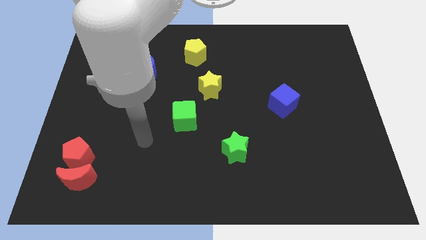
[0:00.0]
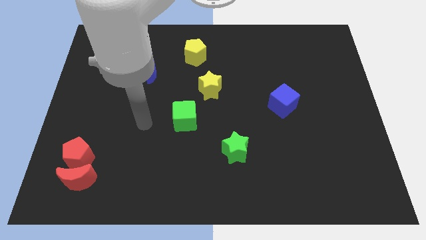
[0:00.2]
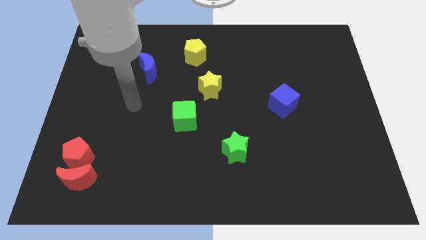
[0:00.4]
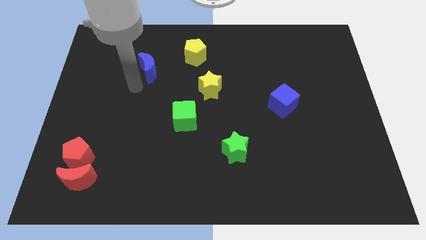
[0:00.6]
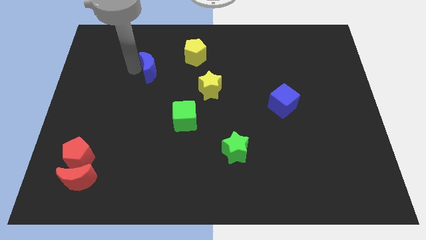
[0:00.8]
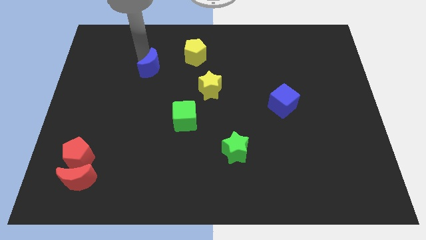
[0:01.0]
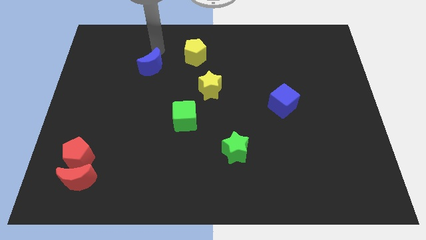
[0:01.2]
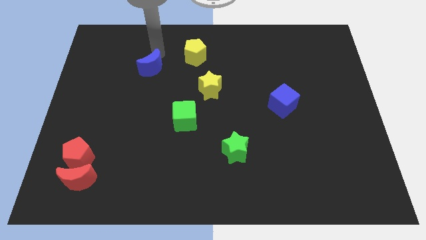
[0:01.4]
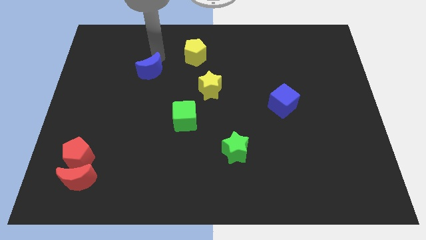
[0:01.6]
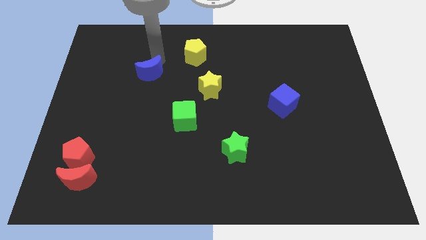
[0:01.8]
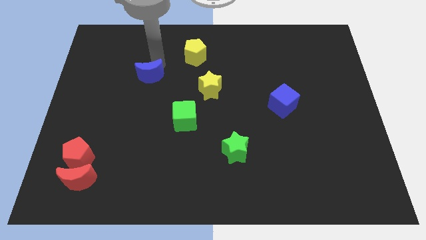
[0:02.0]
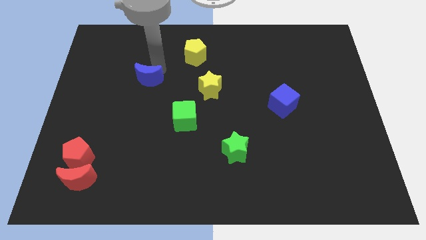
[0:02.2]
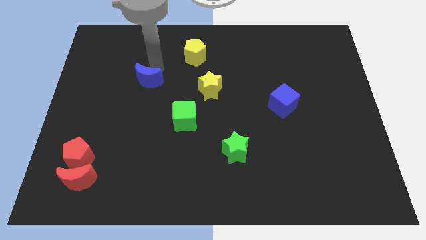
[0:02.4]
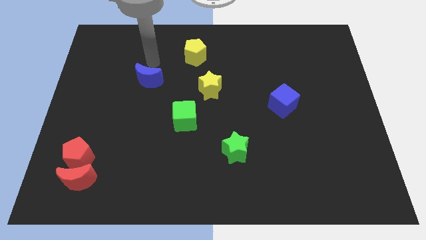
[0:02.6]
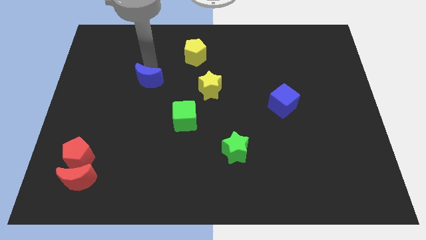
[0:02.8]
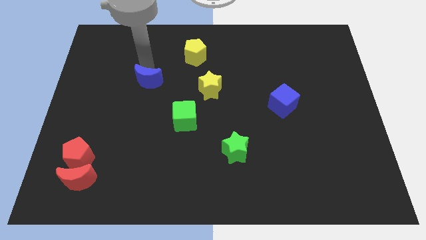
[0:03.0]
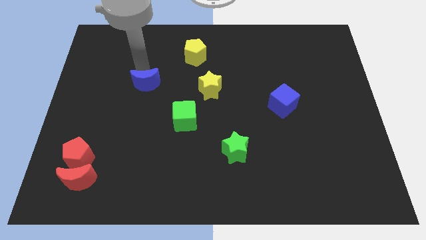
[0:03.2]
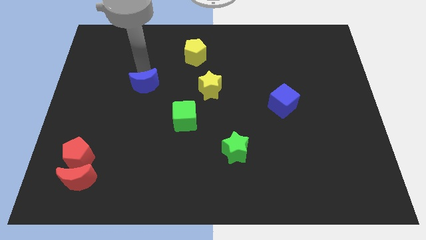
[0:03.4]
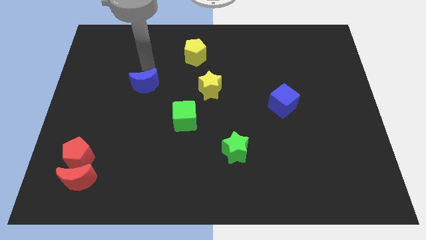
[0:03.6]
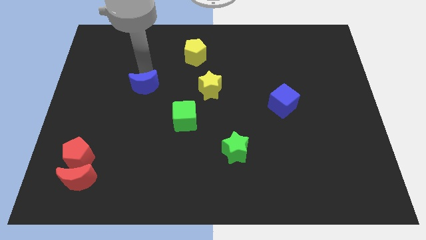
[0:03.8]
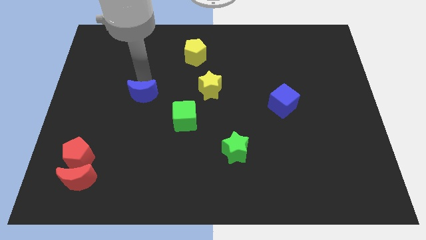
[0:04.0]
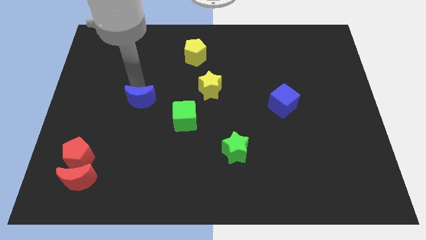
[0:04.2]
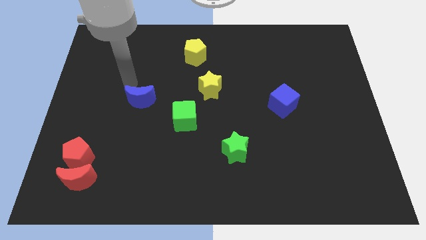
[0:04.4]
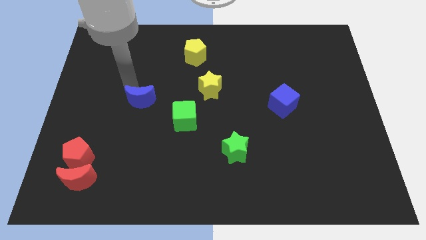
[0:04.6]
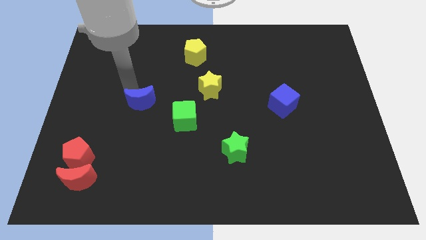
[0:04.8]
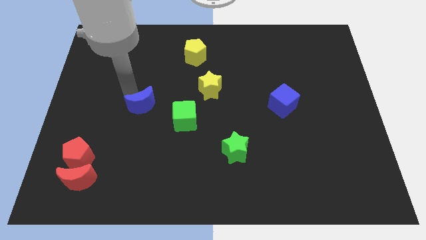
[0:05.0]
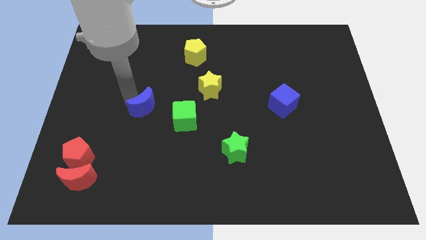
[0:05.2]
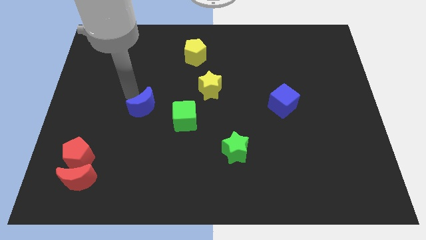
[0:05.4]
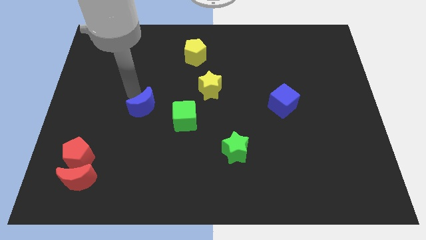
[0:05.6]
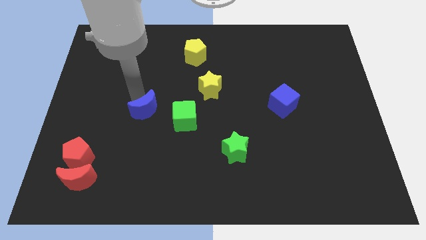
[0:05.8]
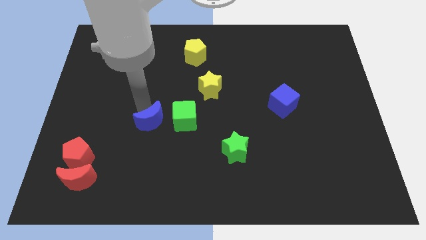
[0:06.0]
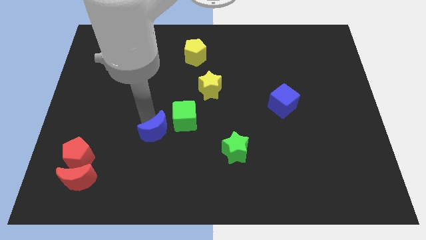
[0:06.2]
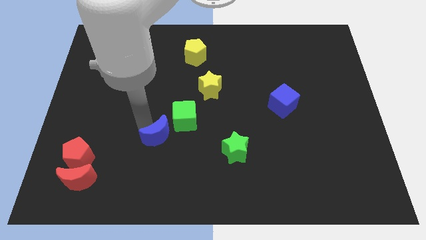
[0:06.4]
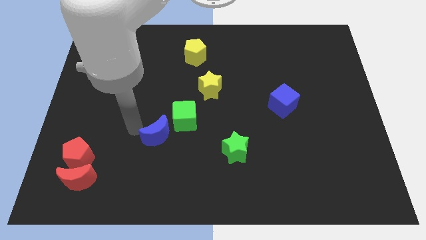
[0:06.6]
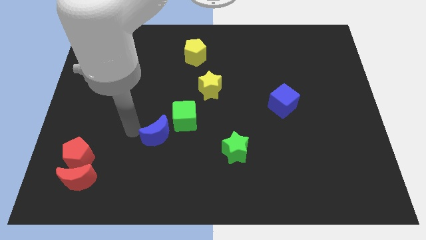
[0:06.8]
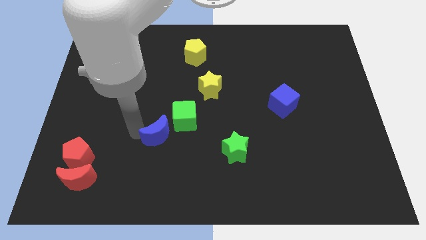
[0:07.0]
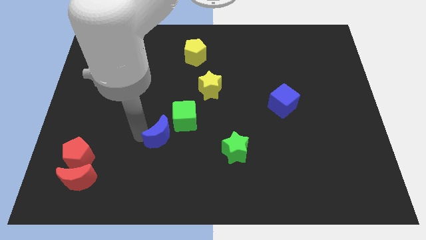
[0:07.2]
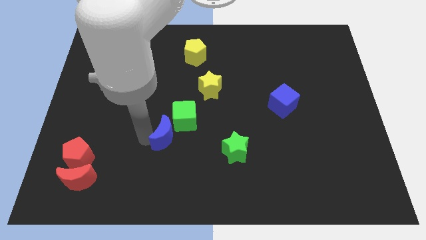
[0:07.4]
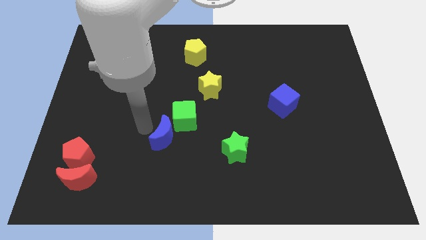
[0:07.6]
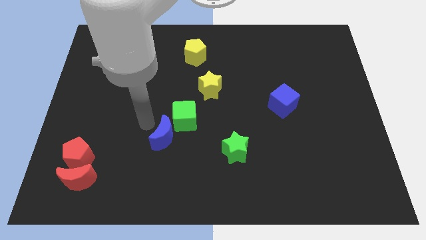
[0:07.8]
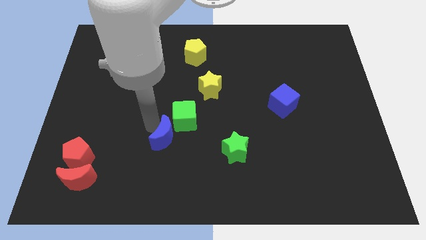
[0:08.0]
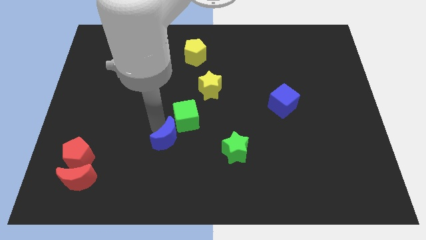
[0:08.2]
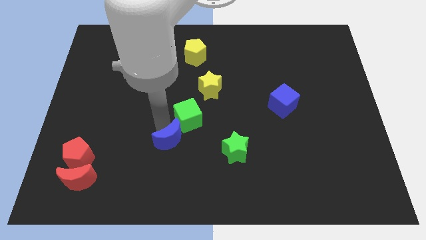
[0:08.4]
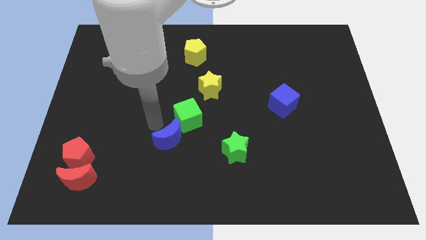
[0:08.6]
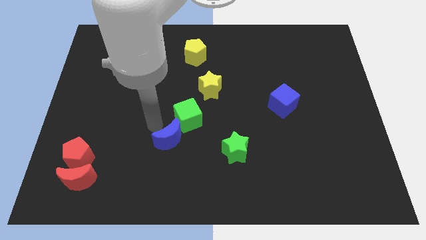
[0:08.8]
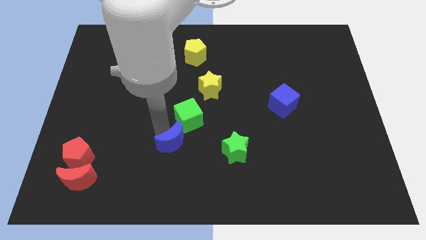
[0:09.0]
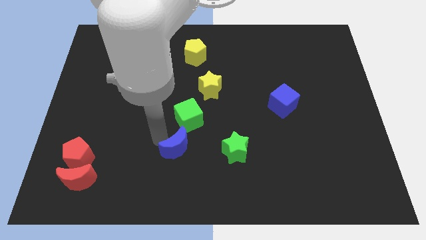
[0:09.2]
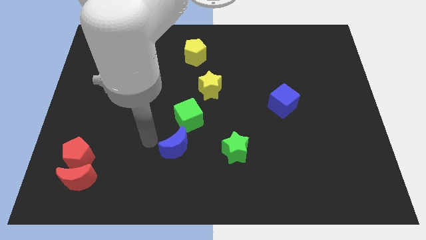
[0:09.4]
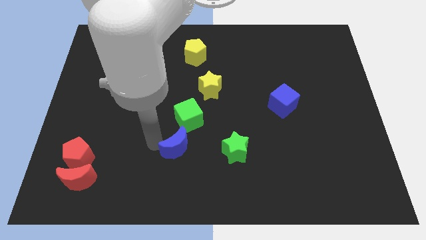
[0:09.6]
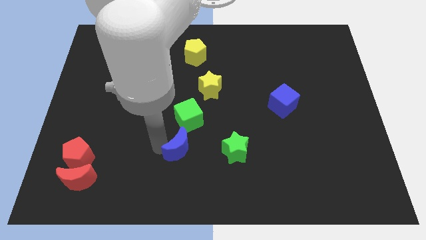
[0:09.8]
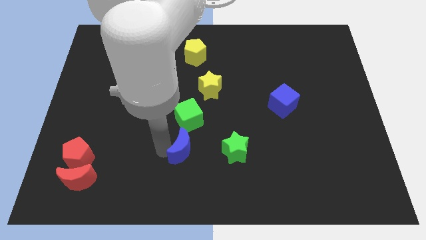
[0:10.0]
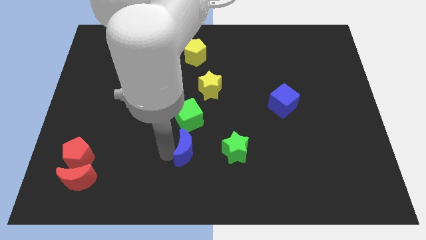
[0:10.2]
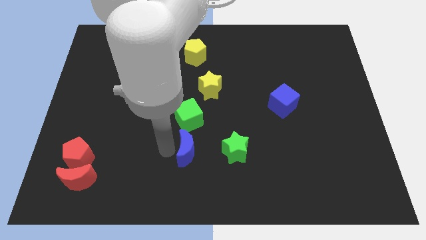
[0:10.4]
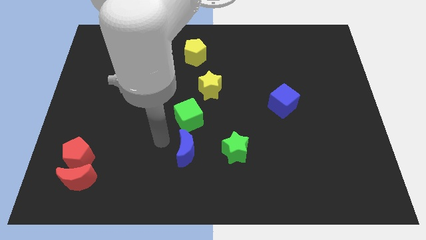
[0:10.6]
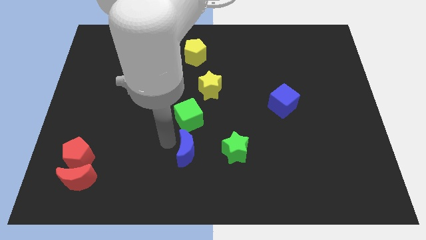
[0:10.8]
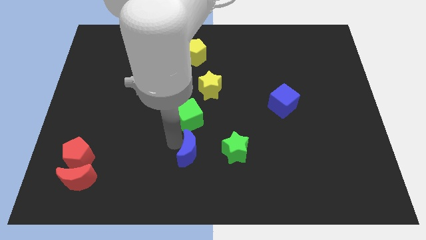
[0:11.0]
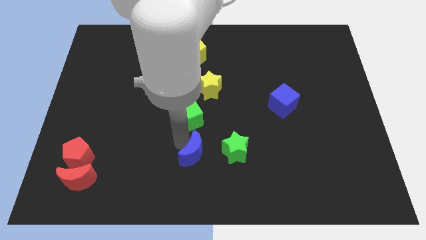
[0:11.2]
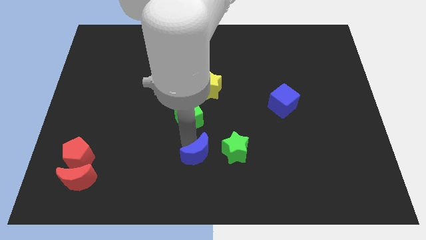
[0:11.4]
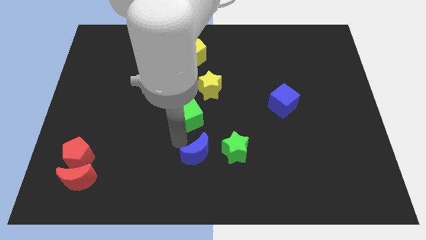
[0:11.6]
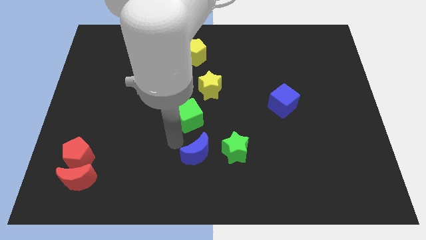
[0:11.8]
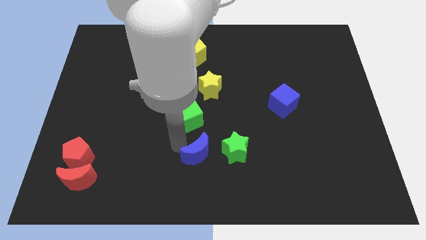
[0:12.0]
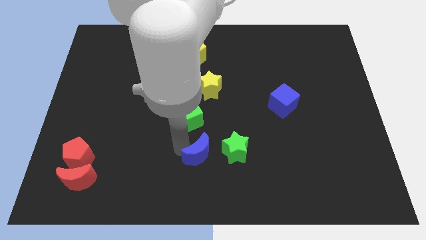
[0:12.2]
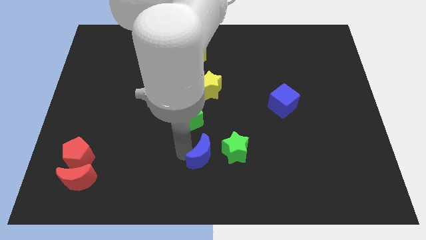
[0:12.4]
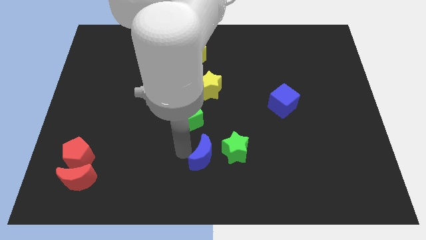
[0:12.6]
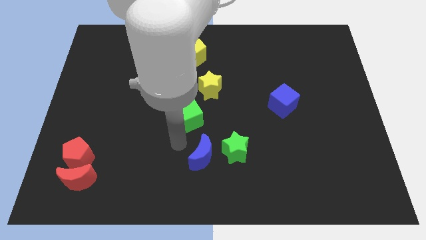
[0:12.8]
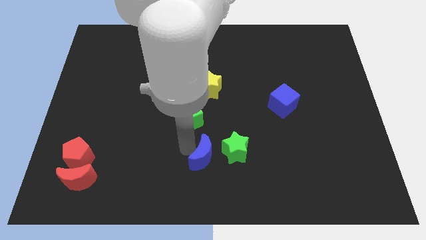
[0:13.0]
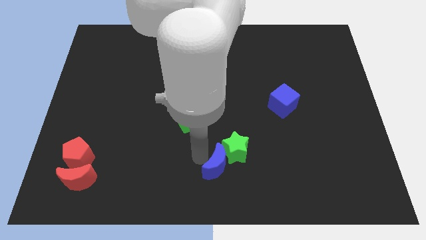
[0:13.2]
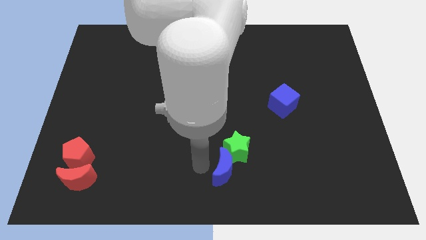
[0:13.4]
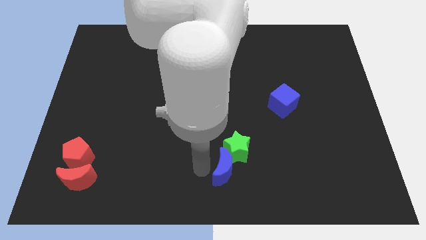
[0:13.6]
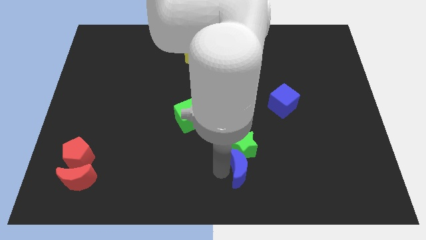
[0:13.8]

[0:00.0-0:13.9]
push the blue moon to the bottom right side of the green star

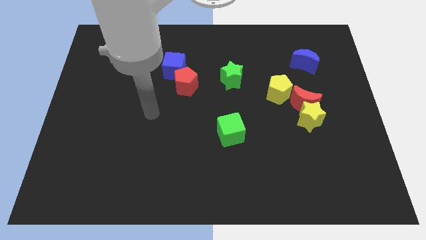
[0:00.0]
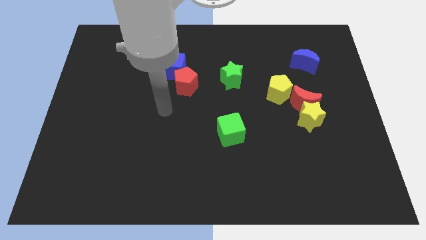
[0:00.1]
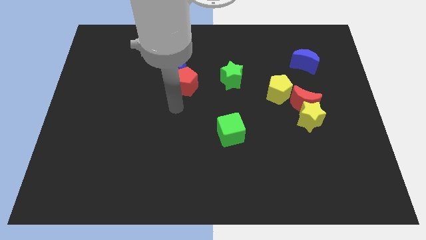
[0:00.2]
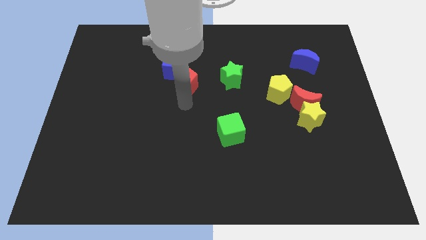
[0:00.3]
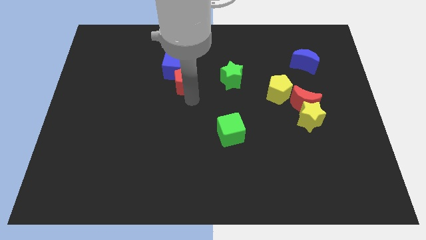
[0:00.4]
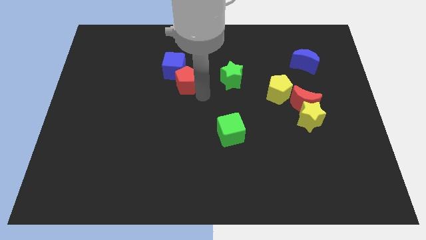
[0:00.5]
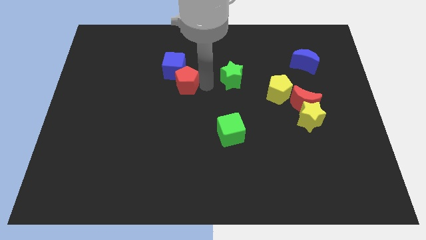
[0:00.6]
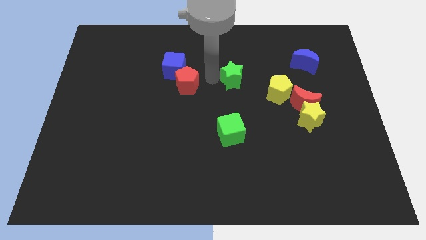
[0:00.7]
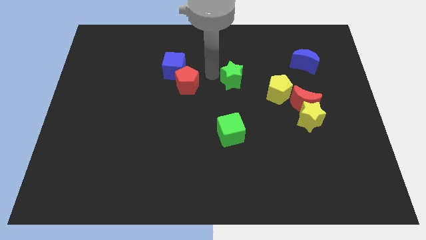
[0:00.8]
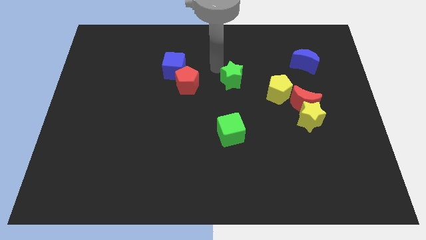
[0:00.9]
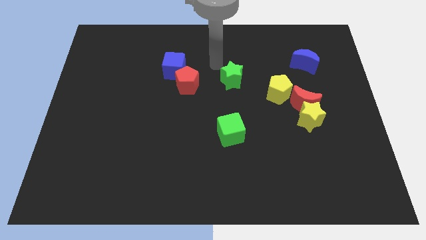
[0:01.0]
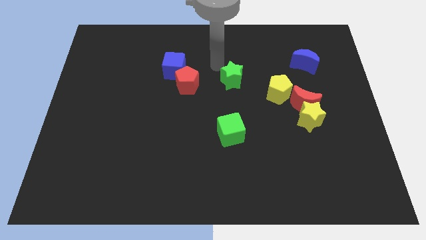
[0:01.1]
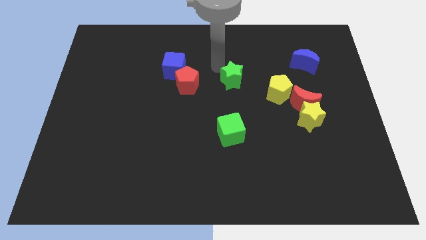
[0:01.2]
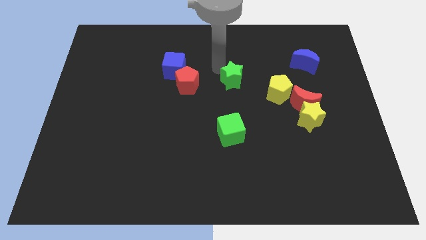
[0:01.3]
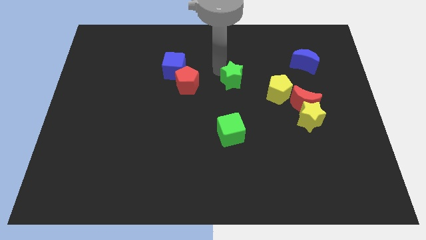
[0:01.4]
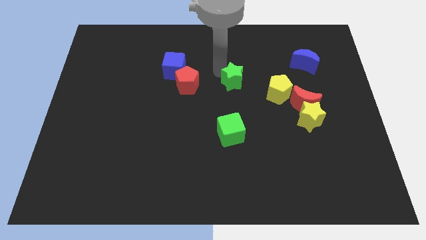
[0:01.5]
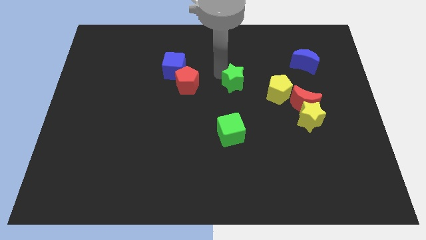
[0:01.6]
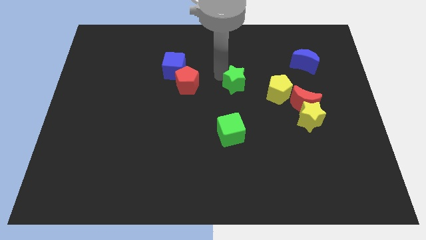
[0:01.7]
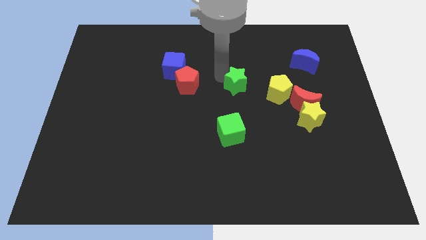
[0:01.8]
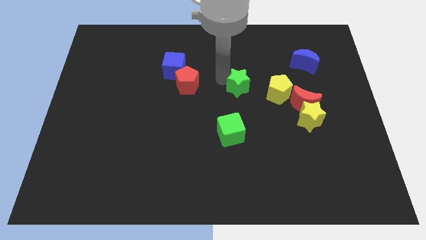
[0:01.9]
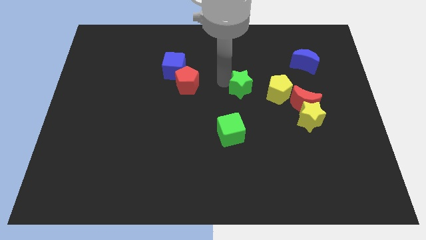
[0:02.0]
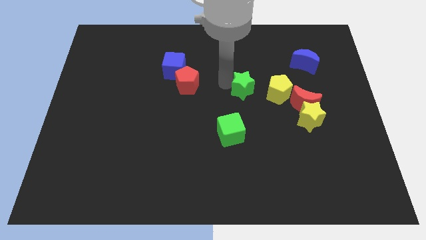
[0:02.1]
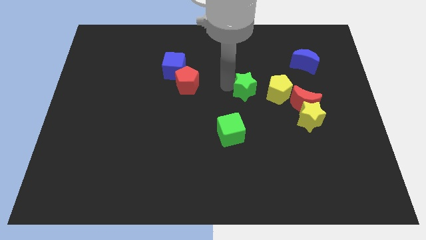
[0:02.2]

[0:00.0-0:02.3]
push the green star to the left of the red moon
